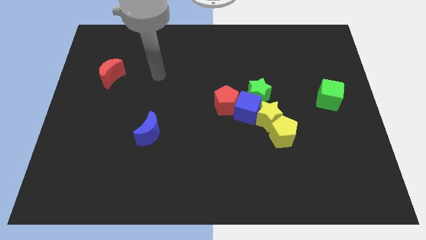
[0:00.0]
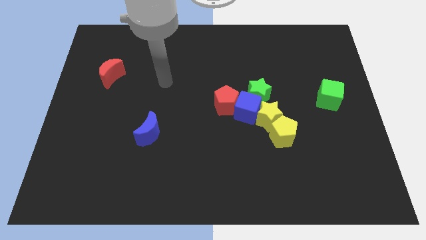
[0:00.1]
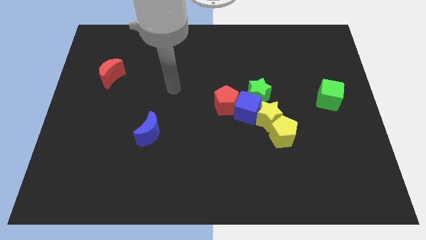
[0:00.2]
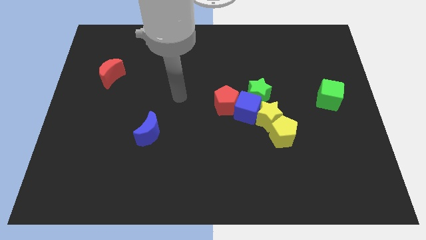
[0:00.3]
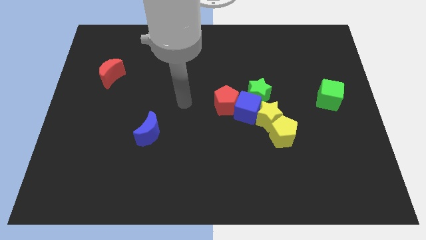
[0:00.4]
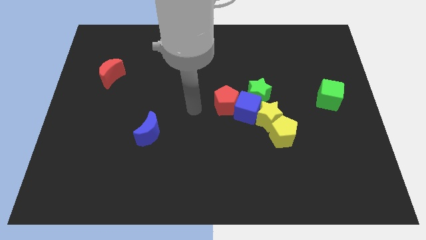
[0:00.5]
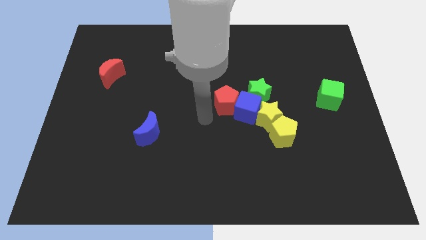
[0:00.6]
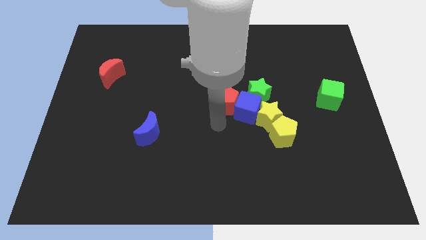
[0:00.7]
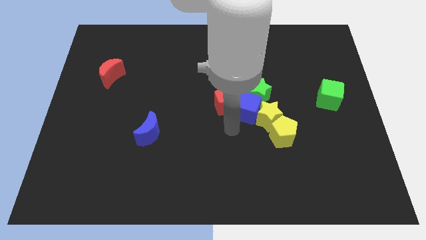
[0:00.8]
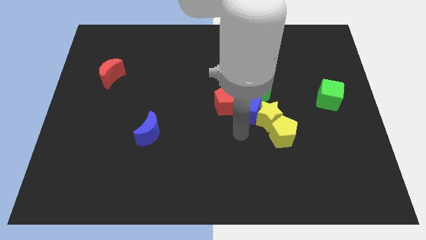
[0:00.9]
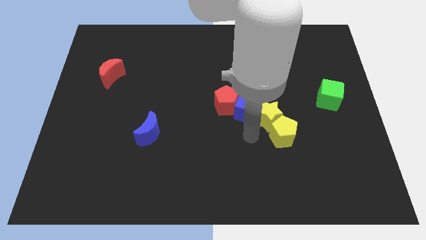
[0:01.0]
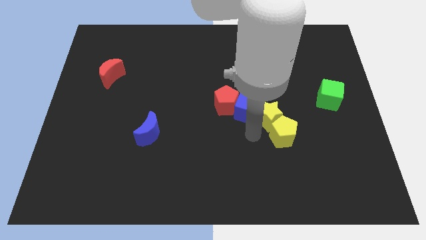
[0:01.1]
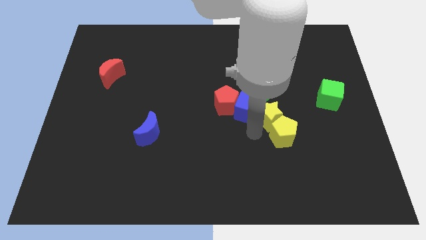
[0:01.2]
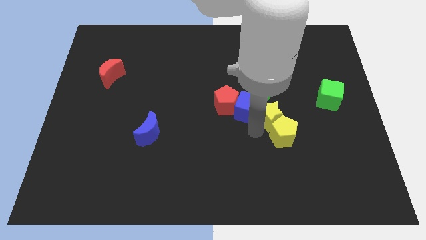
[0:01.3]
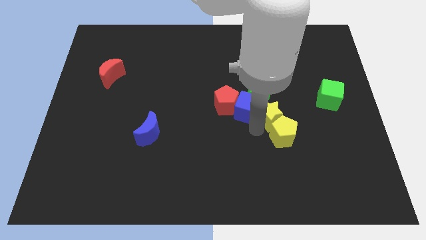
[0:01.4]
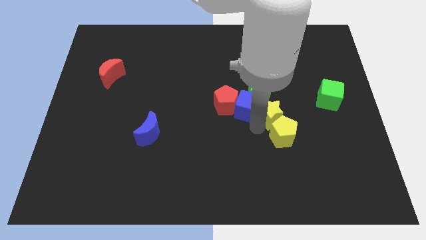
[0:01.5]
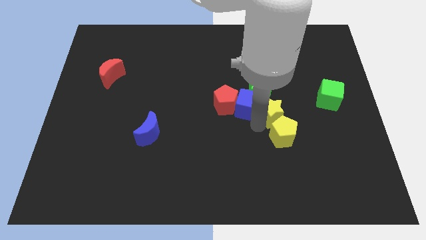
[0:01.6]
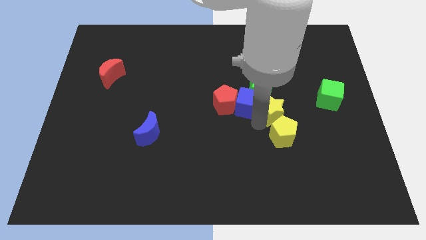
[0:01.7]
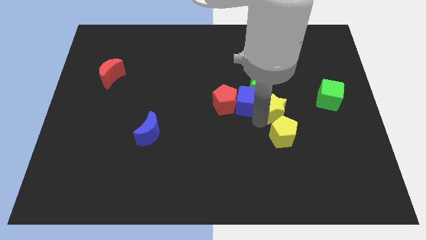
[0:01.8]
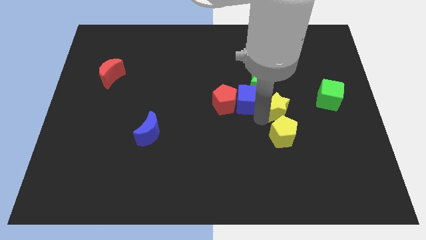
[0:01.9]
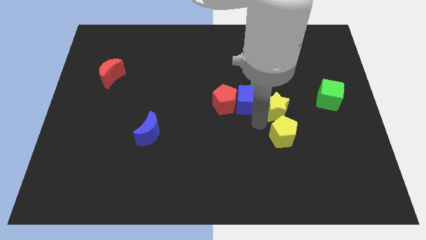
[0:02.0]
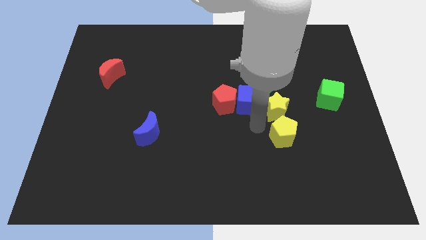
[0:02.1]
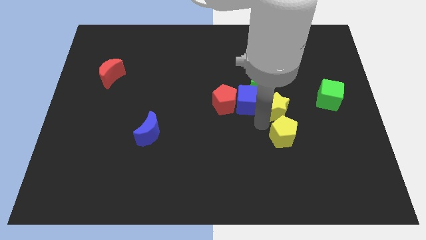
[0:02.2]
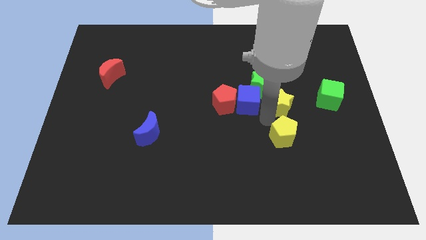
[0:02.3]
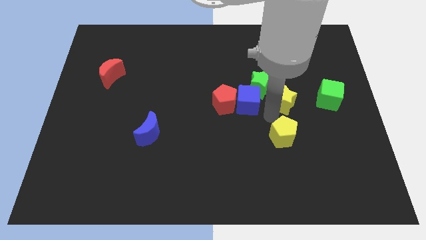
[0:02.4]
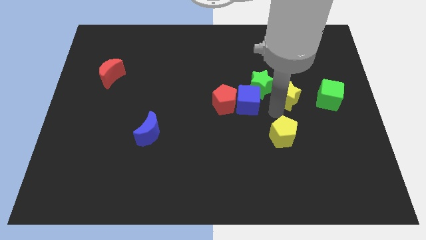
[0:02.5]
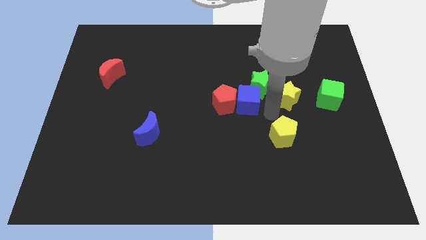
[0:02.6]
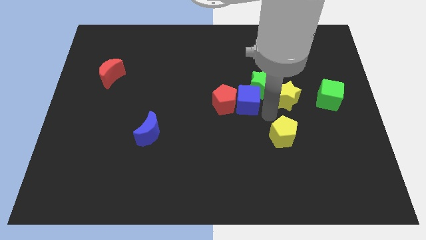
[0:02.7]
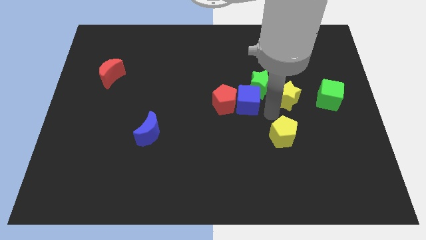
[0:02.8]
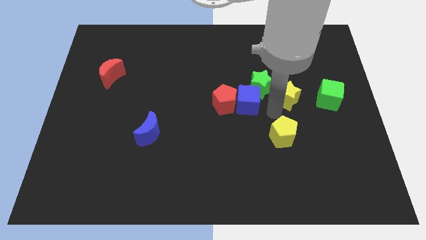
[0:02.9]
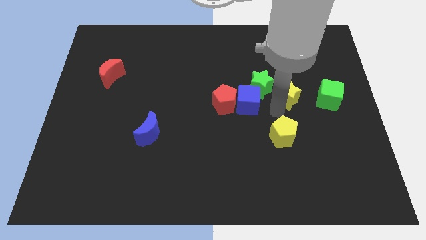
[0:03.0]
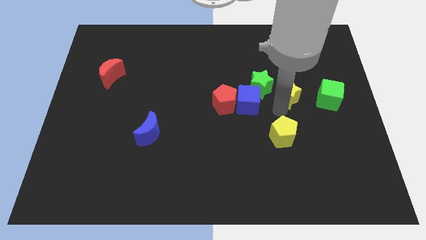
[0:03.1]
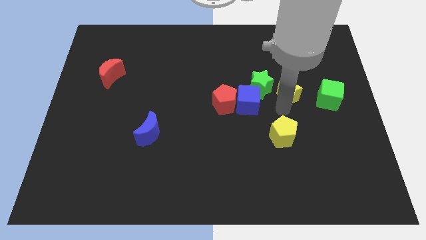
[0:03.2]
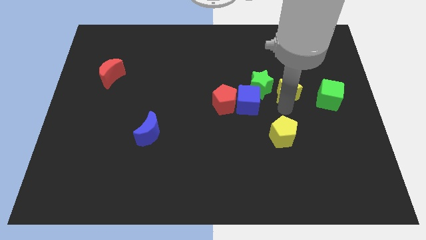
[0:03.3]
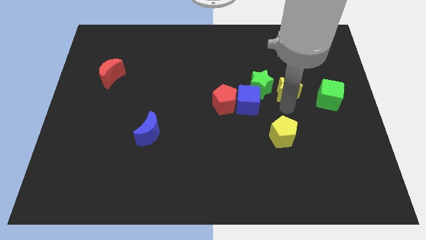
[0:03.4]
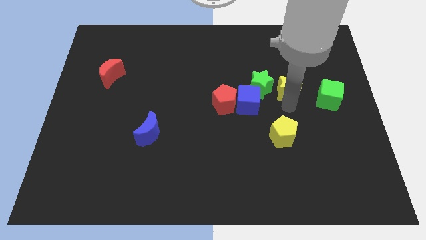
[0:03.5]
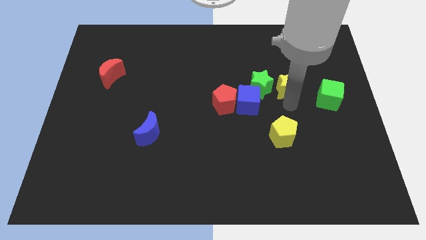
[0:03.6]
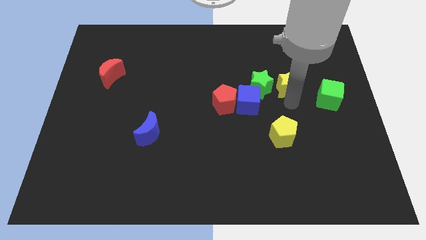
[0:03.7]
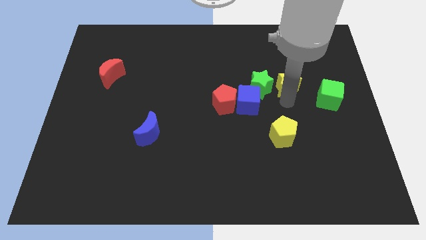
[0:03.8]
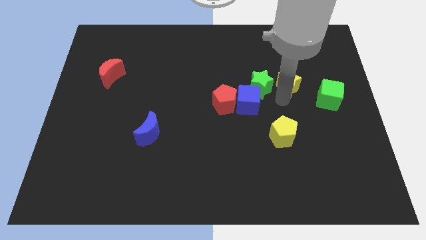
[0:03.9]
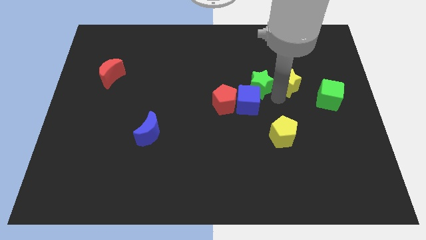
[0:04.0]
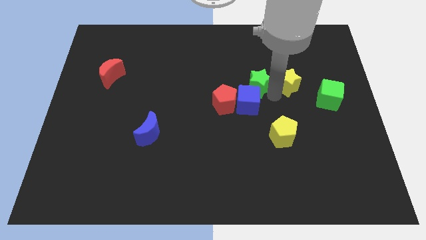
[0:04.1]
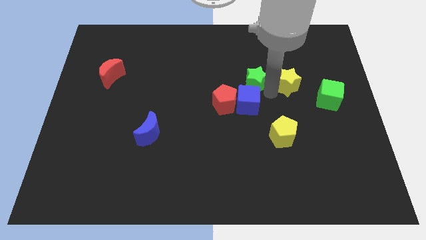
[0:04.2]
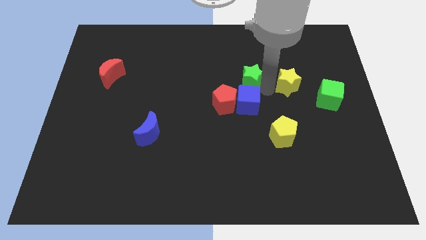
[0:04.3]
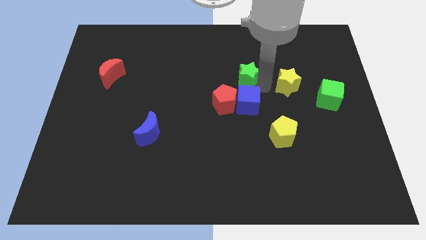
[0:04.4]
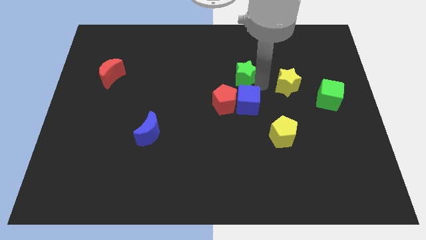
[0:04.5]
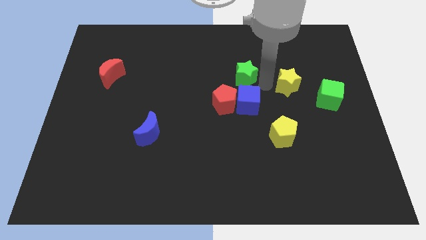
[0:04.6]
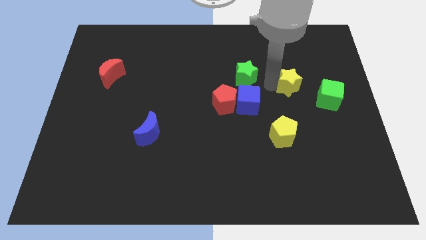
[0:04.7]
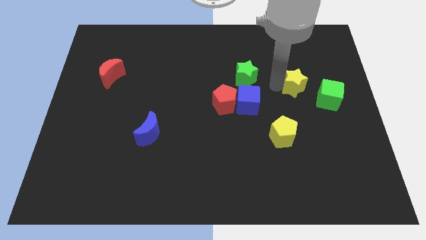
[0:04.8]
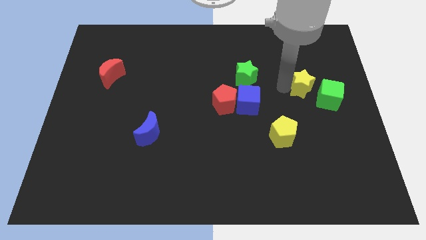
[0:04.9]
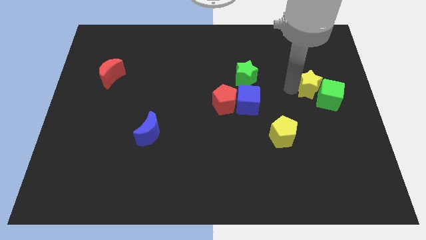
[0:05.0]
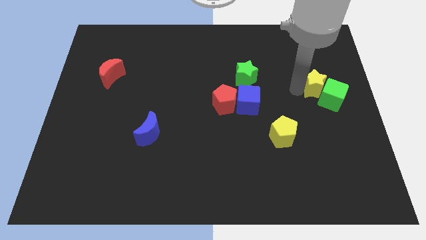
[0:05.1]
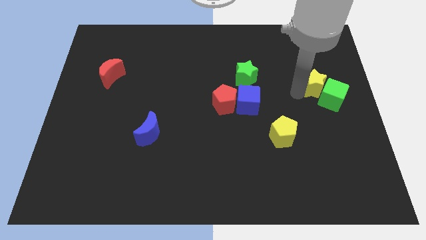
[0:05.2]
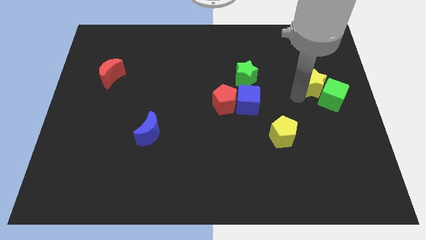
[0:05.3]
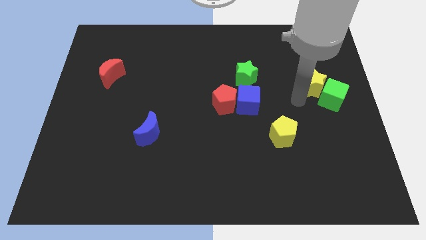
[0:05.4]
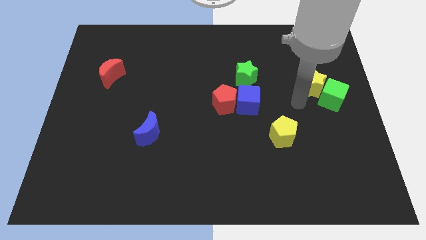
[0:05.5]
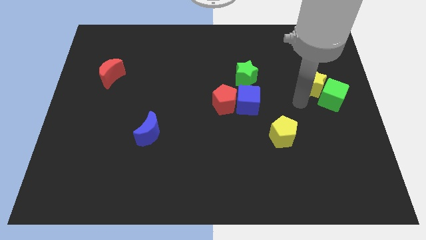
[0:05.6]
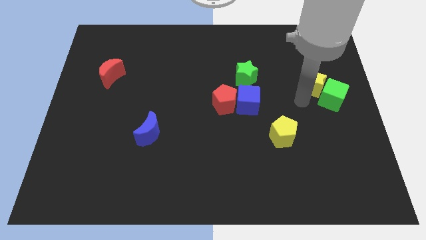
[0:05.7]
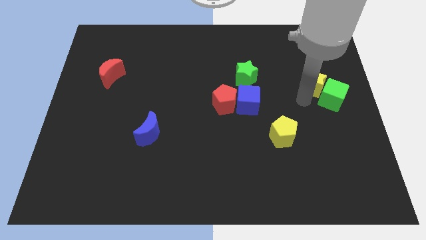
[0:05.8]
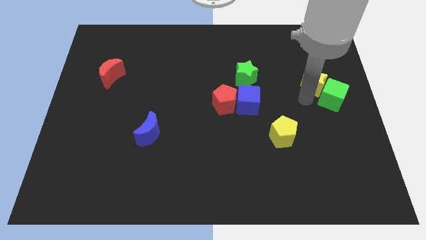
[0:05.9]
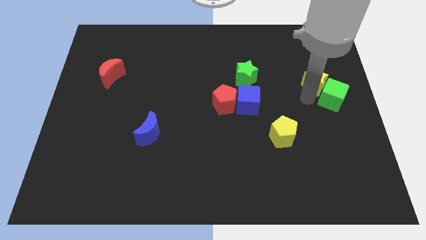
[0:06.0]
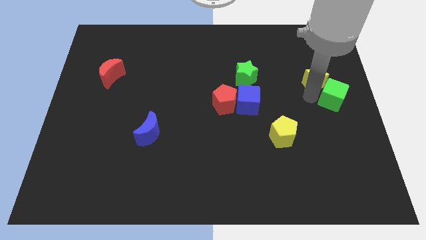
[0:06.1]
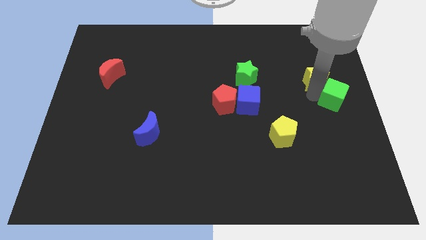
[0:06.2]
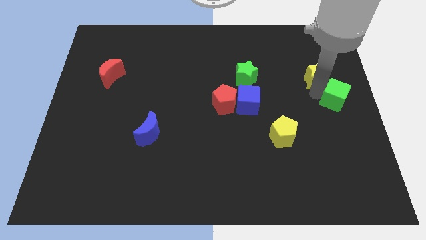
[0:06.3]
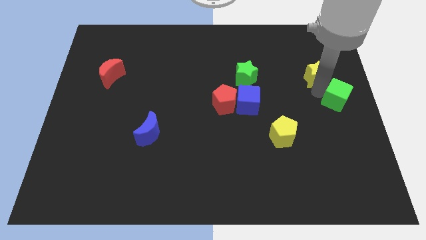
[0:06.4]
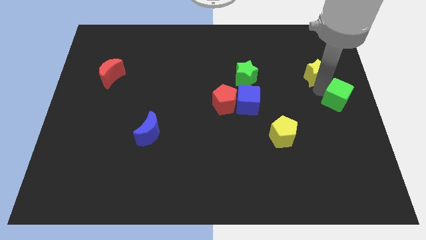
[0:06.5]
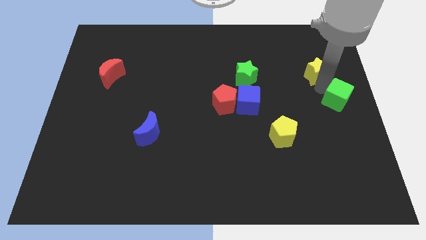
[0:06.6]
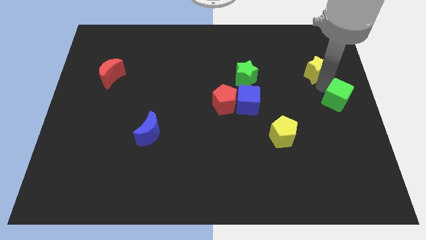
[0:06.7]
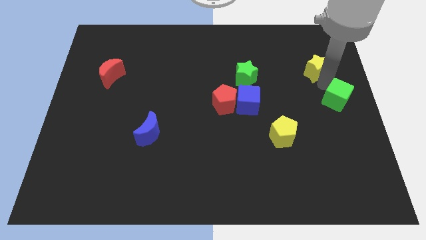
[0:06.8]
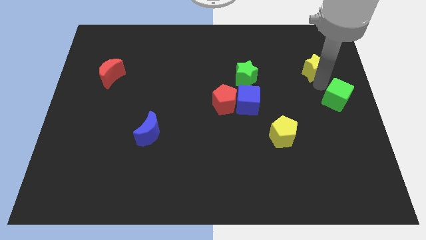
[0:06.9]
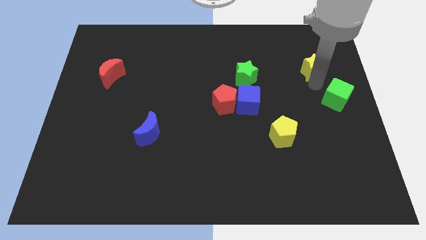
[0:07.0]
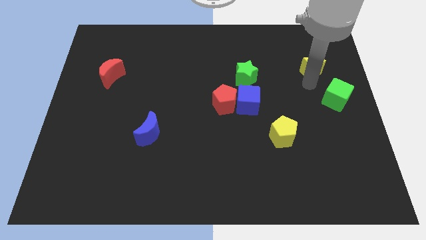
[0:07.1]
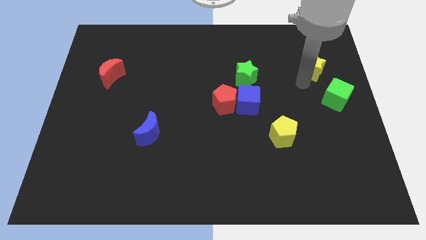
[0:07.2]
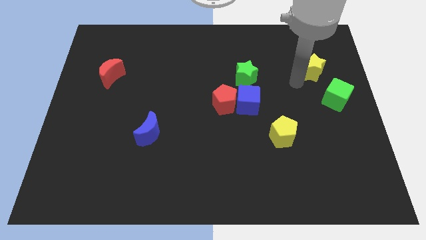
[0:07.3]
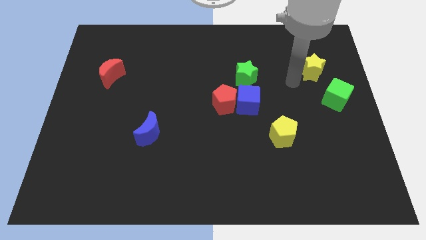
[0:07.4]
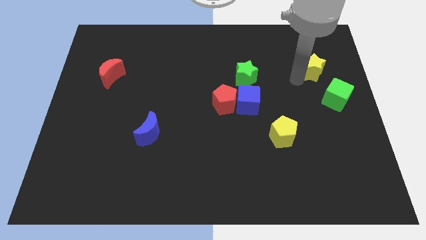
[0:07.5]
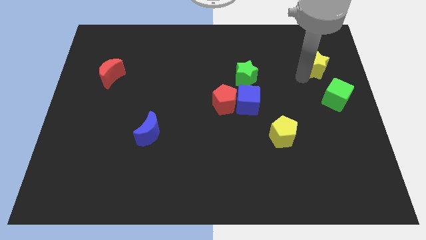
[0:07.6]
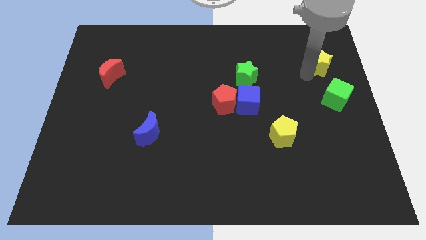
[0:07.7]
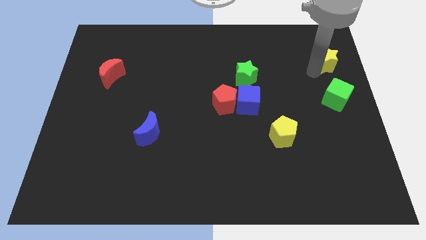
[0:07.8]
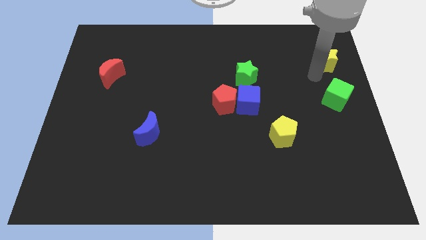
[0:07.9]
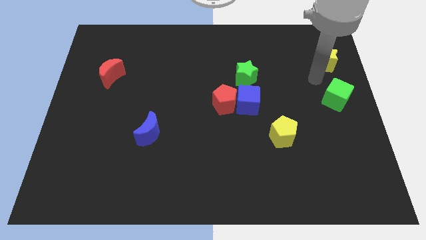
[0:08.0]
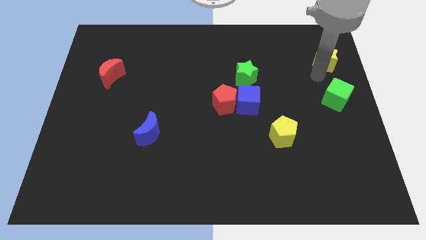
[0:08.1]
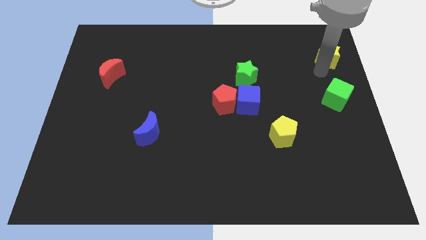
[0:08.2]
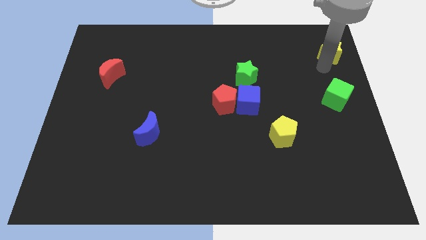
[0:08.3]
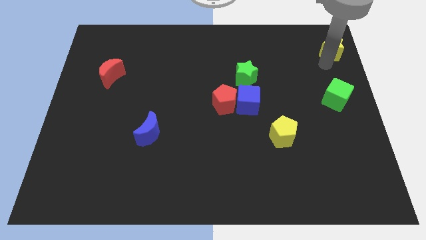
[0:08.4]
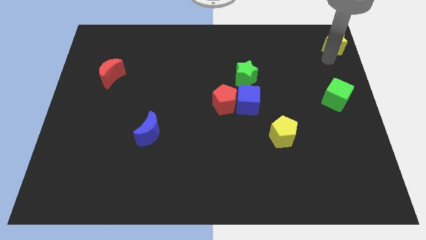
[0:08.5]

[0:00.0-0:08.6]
push the yellow star to the upper right corner
